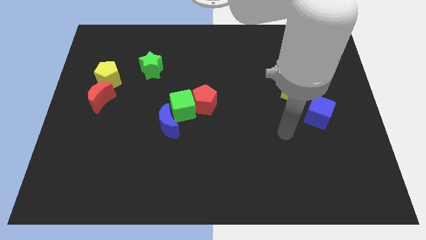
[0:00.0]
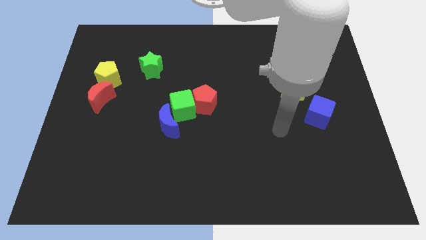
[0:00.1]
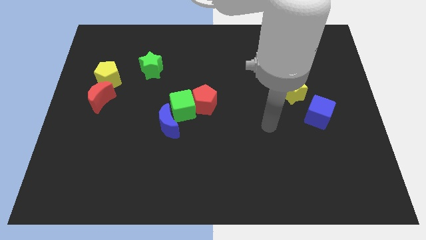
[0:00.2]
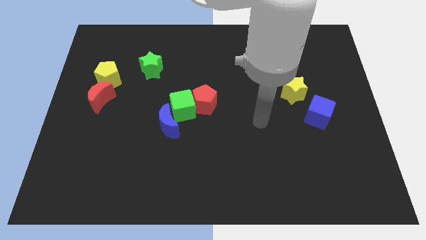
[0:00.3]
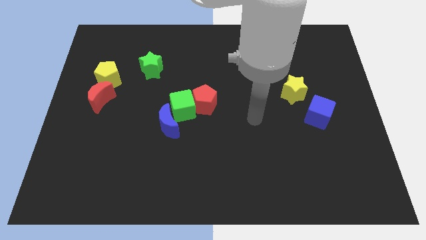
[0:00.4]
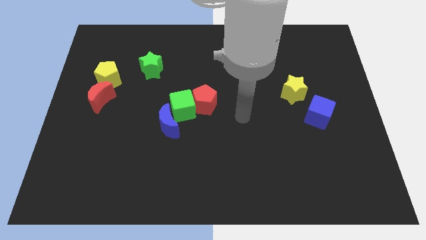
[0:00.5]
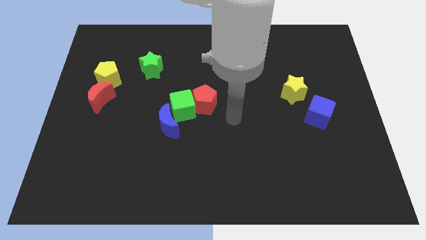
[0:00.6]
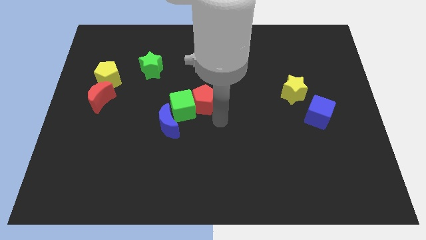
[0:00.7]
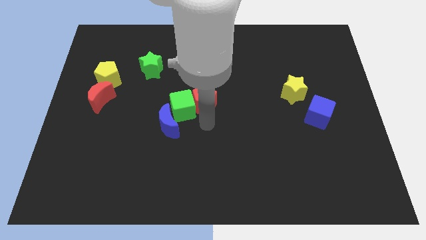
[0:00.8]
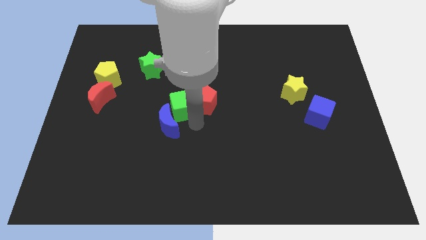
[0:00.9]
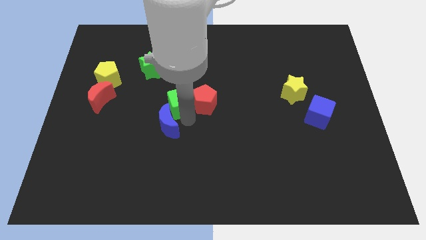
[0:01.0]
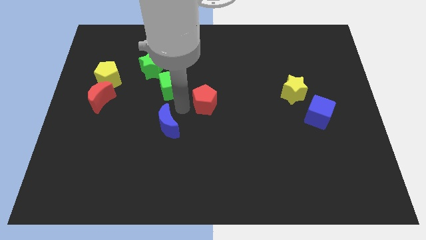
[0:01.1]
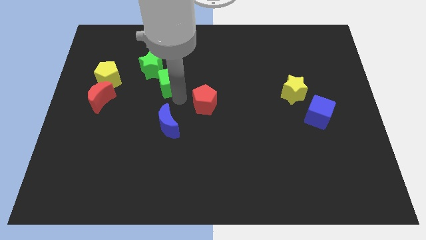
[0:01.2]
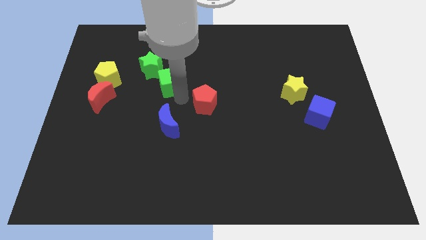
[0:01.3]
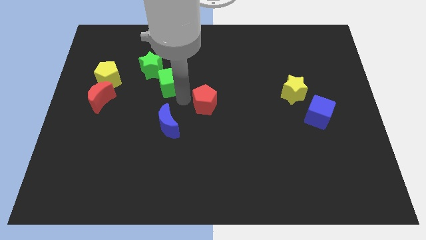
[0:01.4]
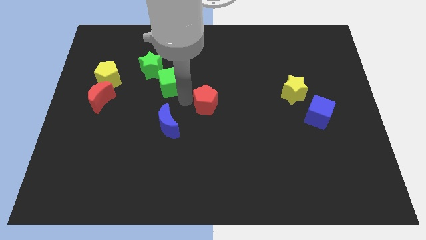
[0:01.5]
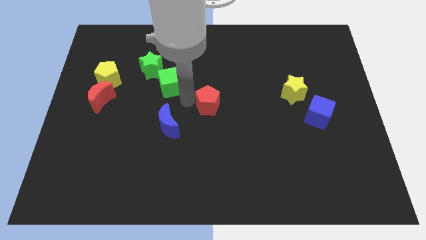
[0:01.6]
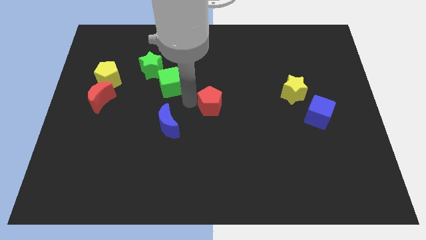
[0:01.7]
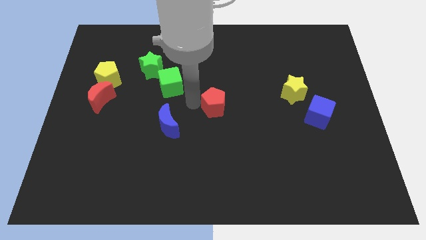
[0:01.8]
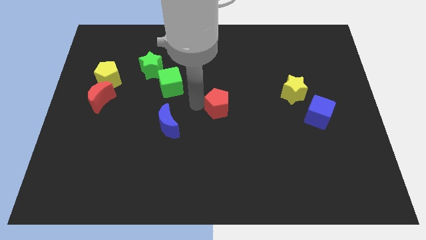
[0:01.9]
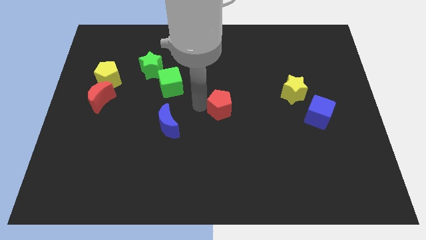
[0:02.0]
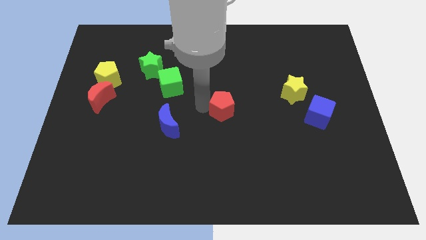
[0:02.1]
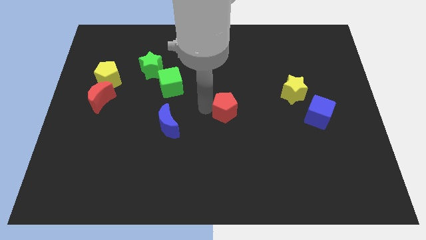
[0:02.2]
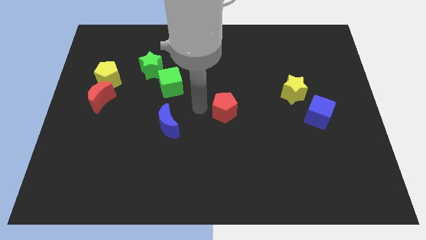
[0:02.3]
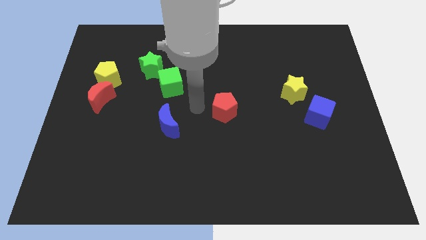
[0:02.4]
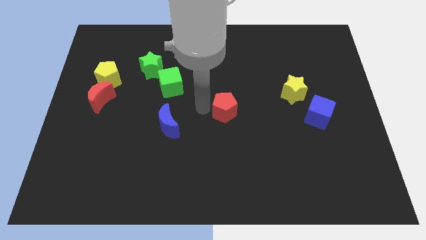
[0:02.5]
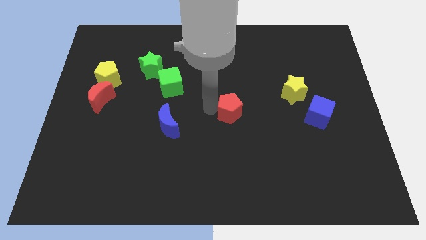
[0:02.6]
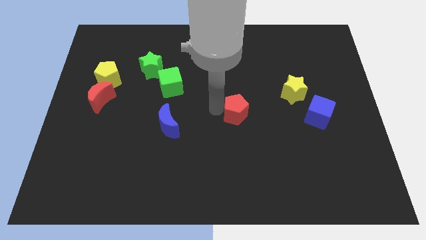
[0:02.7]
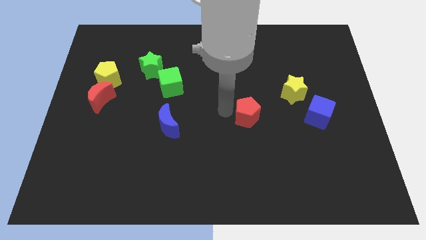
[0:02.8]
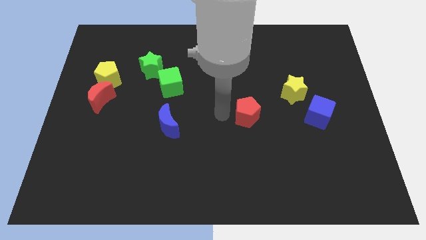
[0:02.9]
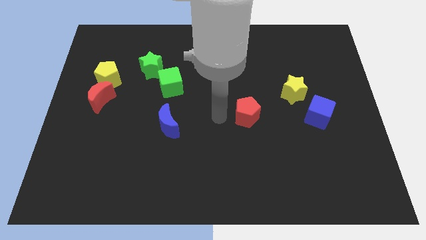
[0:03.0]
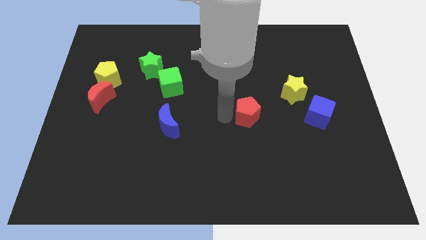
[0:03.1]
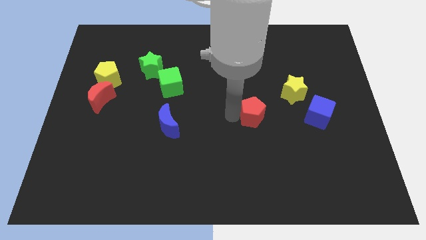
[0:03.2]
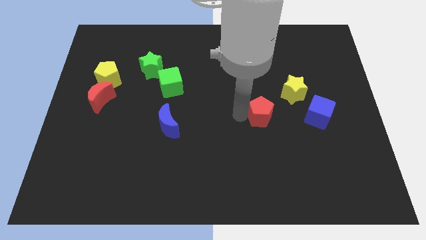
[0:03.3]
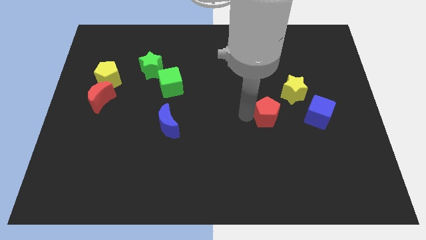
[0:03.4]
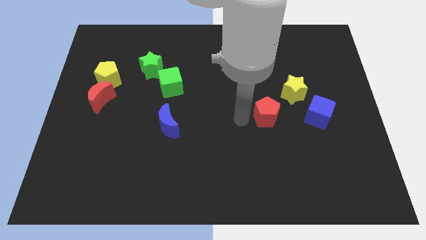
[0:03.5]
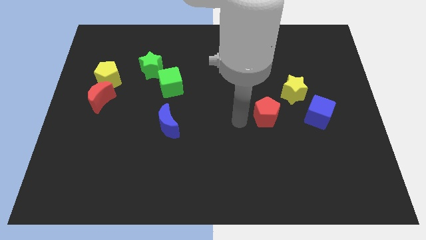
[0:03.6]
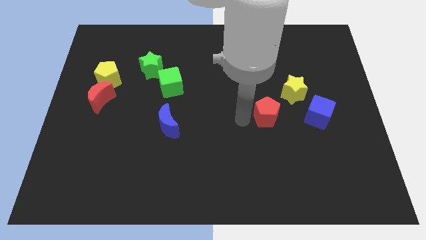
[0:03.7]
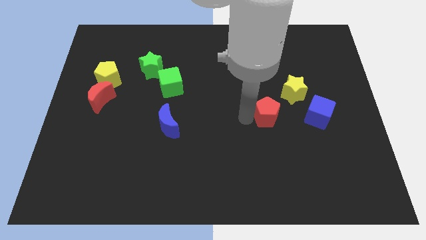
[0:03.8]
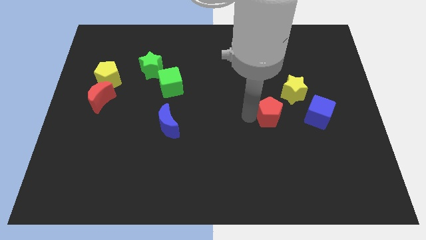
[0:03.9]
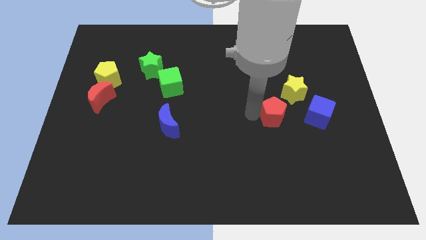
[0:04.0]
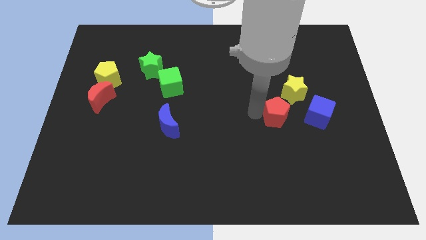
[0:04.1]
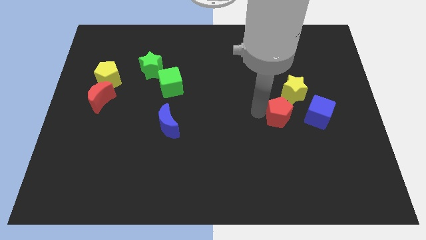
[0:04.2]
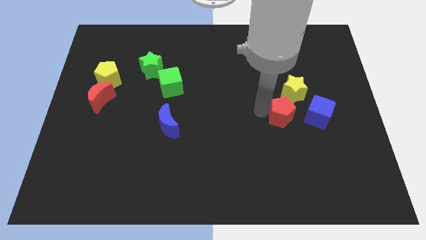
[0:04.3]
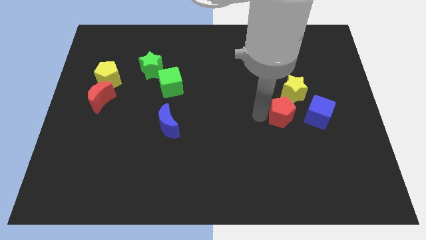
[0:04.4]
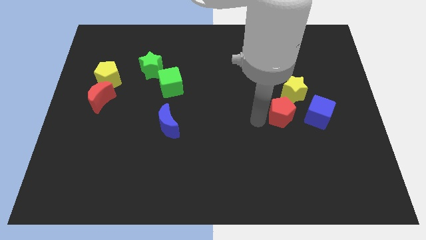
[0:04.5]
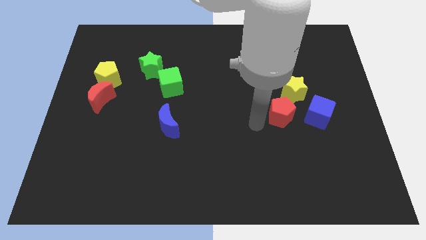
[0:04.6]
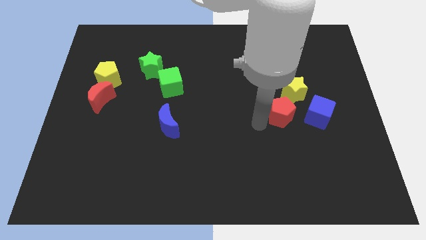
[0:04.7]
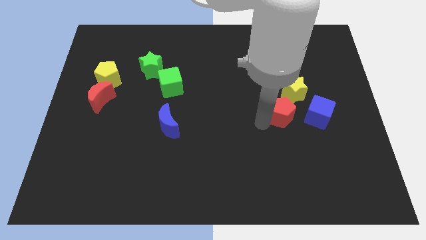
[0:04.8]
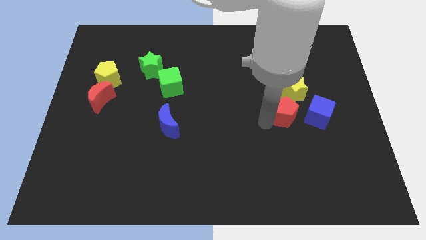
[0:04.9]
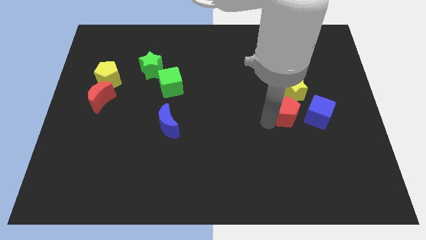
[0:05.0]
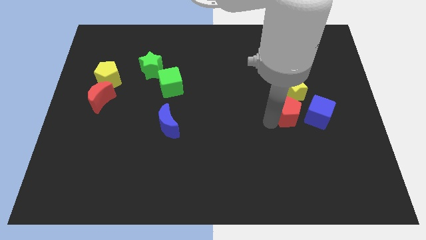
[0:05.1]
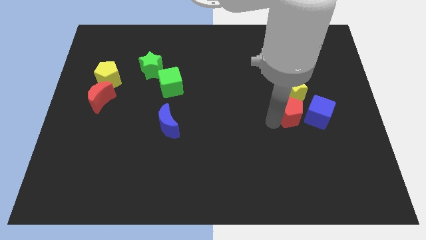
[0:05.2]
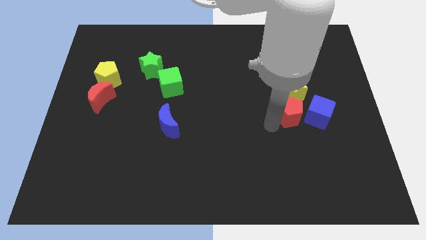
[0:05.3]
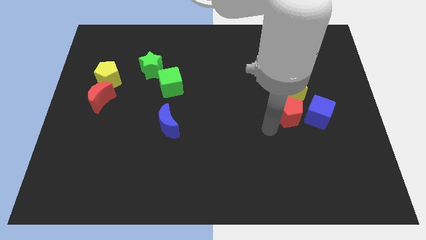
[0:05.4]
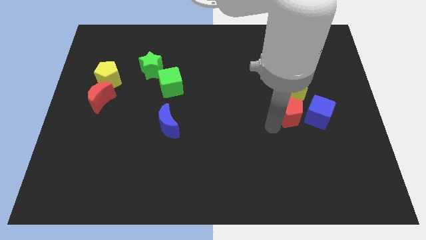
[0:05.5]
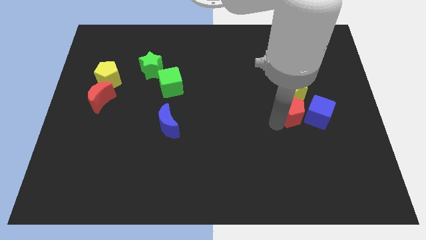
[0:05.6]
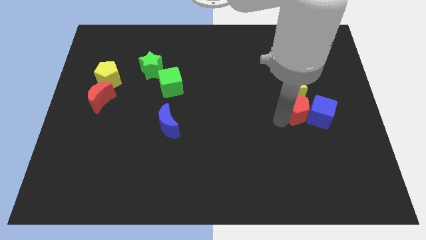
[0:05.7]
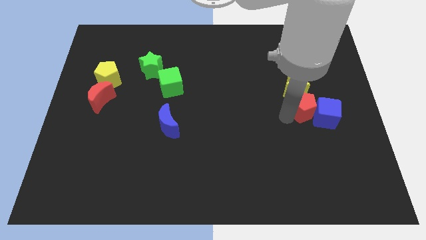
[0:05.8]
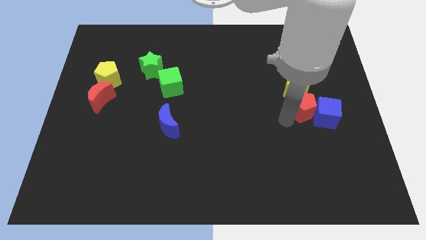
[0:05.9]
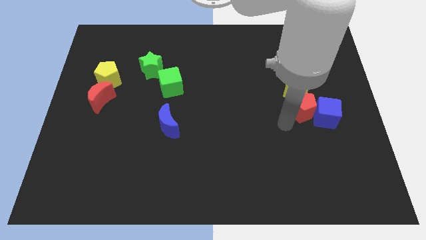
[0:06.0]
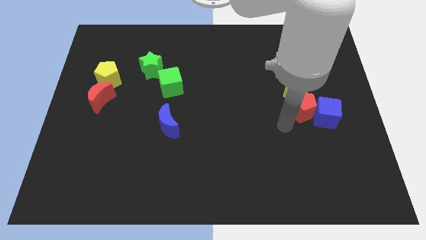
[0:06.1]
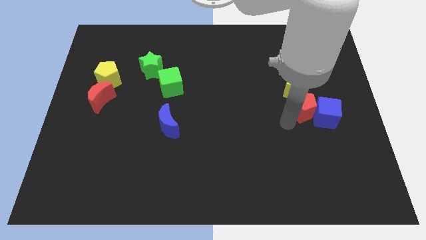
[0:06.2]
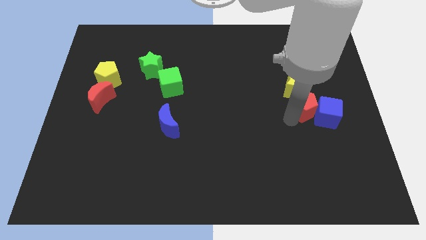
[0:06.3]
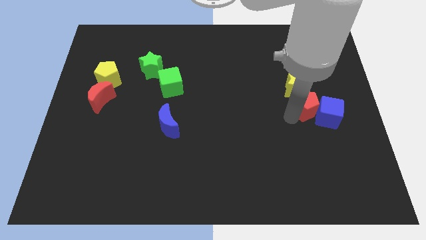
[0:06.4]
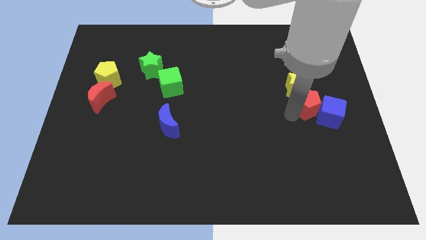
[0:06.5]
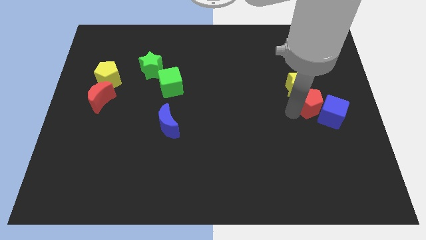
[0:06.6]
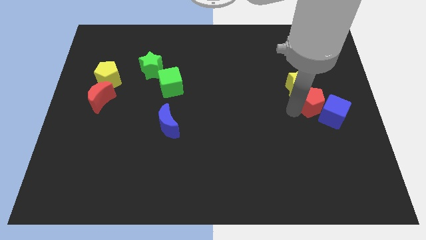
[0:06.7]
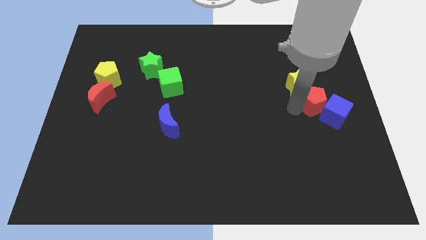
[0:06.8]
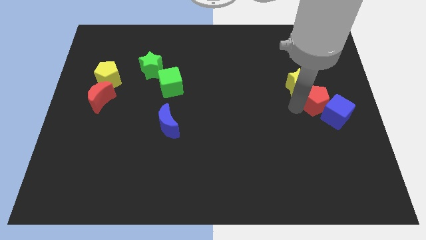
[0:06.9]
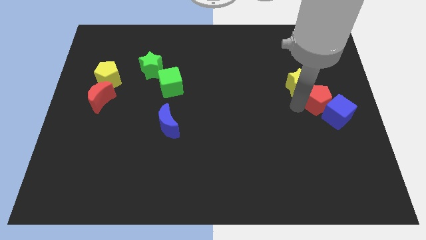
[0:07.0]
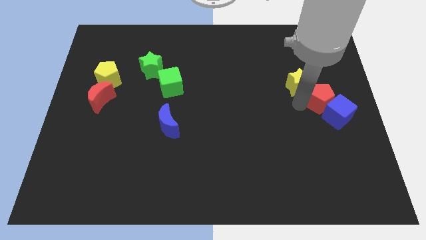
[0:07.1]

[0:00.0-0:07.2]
put the red pentagon to the center right
